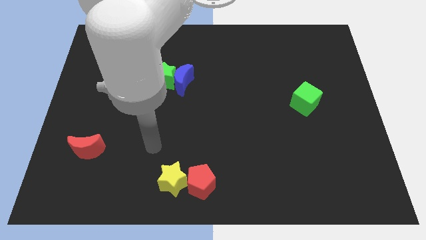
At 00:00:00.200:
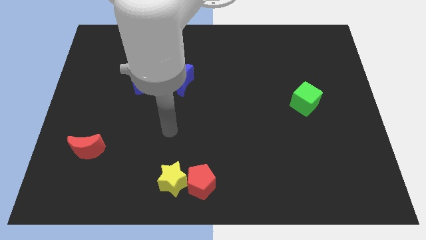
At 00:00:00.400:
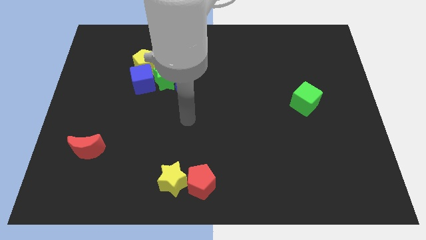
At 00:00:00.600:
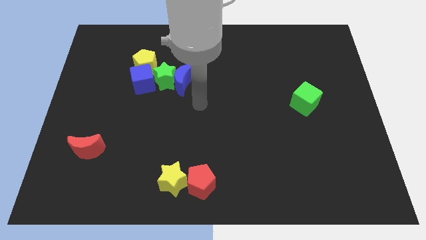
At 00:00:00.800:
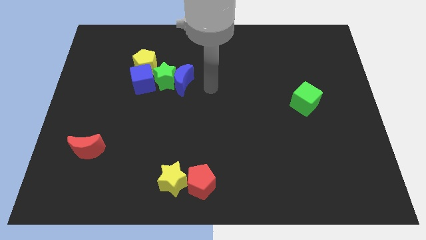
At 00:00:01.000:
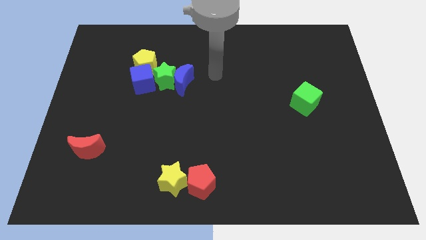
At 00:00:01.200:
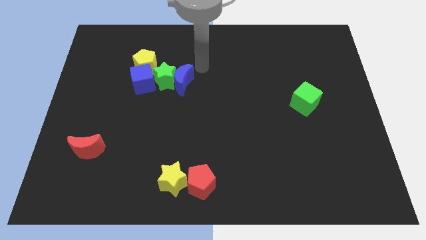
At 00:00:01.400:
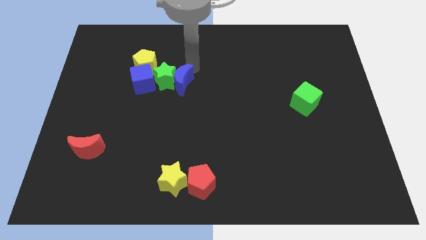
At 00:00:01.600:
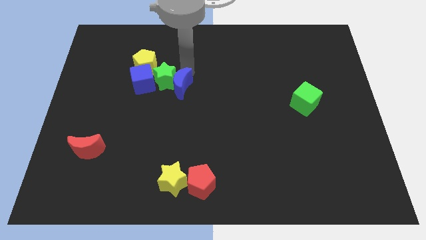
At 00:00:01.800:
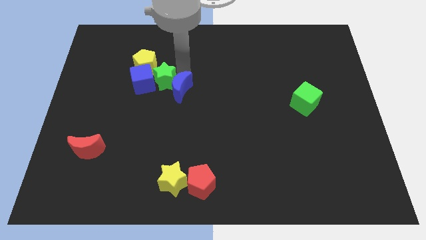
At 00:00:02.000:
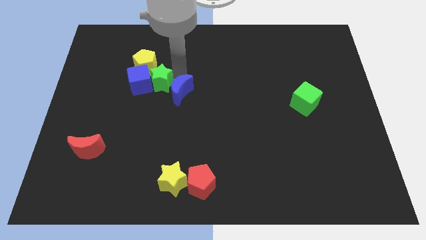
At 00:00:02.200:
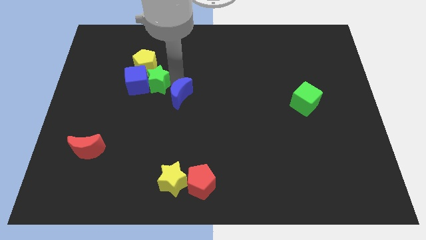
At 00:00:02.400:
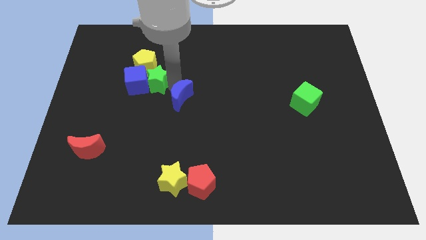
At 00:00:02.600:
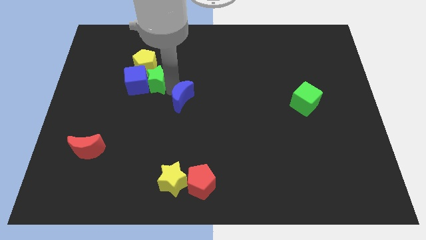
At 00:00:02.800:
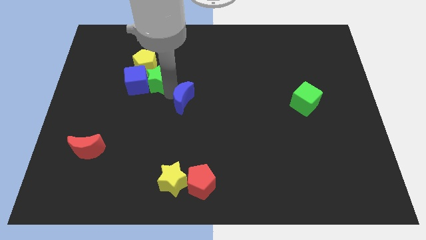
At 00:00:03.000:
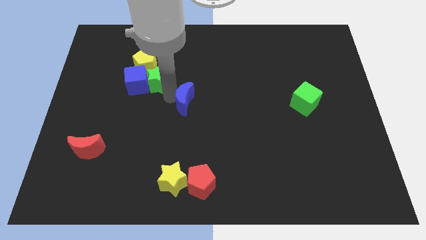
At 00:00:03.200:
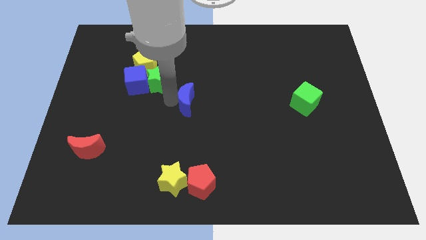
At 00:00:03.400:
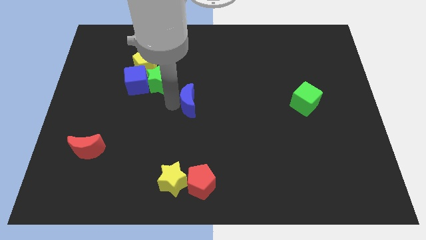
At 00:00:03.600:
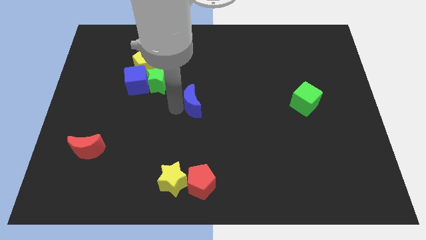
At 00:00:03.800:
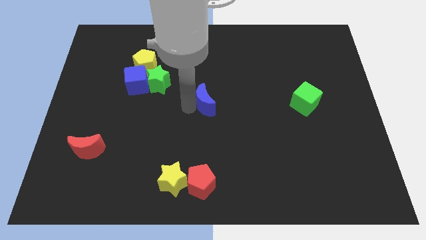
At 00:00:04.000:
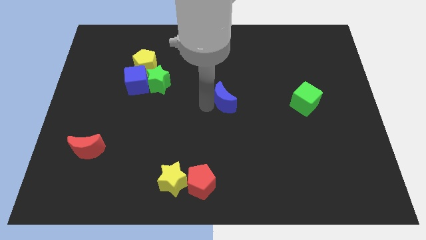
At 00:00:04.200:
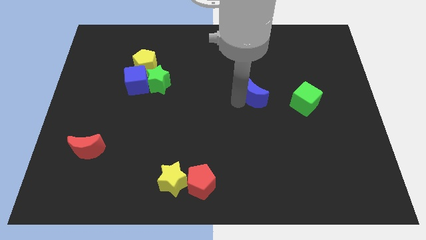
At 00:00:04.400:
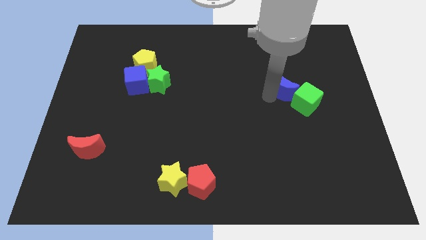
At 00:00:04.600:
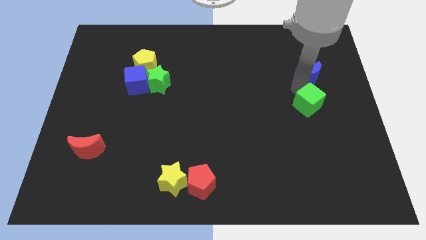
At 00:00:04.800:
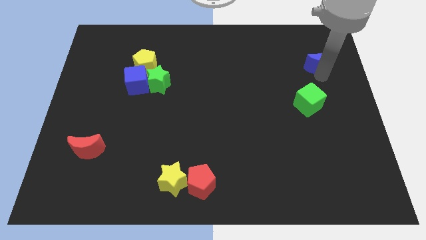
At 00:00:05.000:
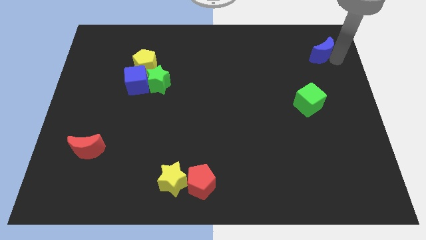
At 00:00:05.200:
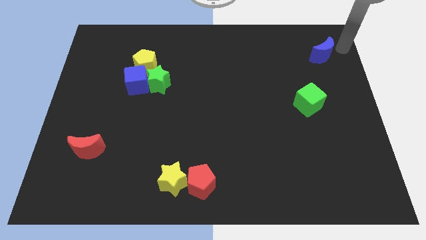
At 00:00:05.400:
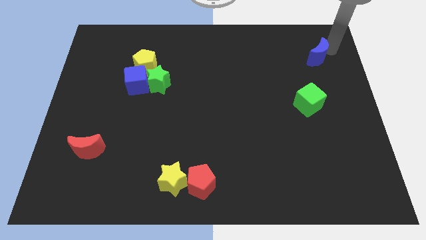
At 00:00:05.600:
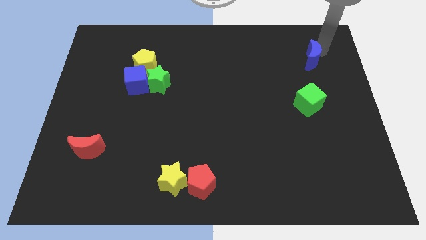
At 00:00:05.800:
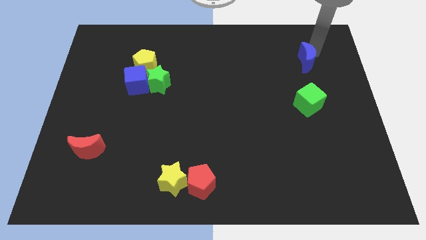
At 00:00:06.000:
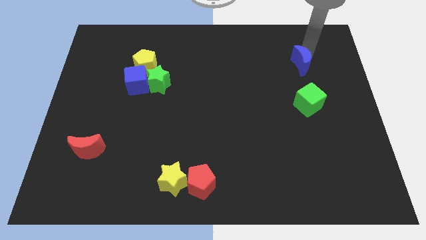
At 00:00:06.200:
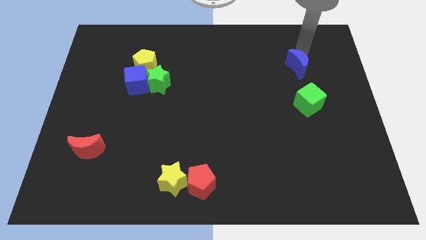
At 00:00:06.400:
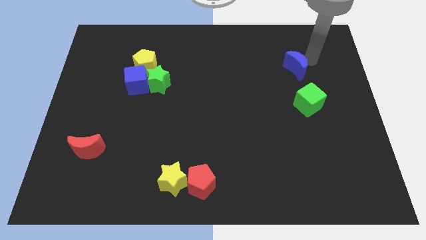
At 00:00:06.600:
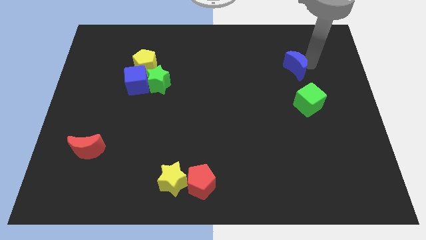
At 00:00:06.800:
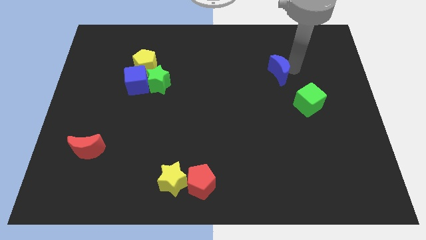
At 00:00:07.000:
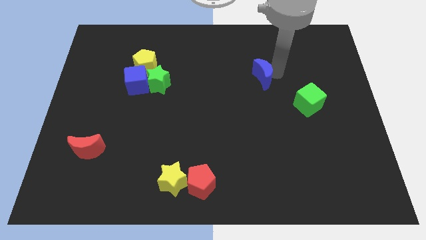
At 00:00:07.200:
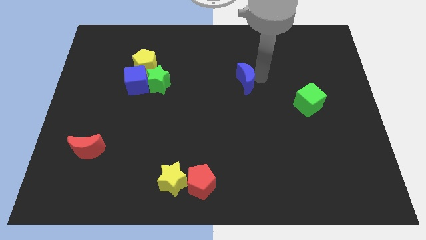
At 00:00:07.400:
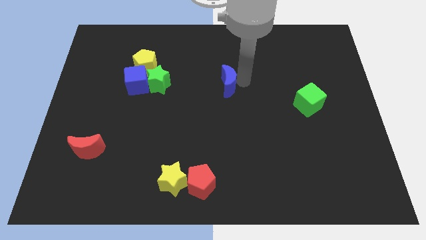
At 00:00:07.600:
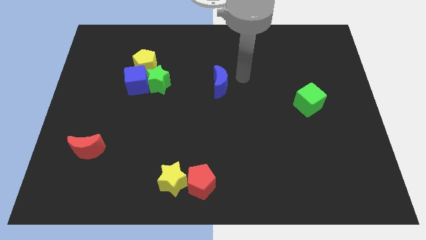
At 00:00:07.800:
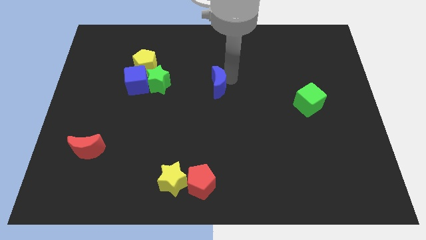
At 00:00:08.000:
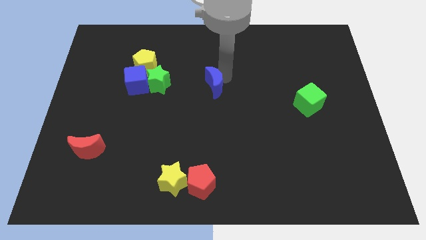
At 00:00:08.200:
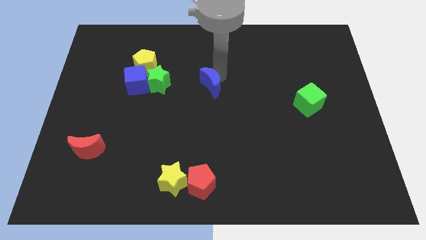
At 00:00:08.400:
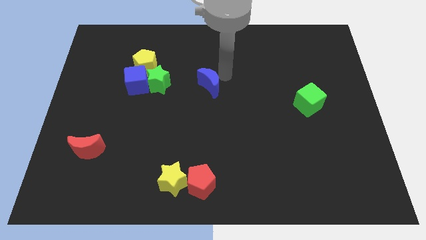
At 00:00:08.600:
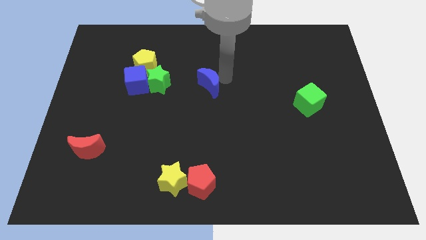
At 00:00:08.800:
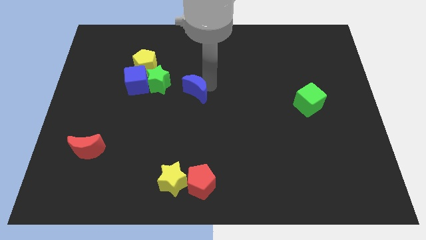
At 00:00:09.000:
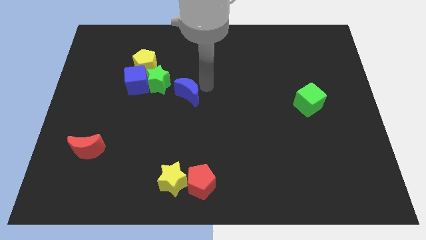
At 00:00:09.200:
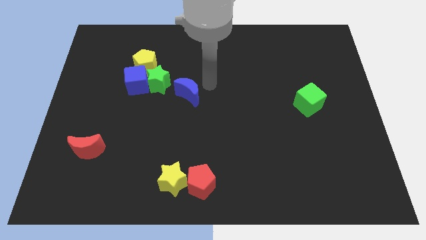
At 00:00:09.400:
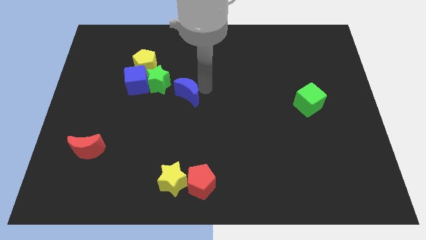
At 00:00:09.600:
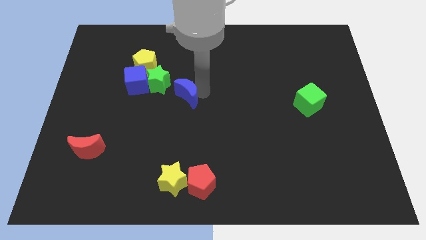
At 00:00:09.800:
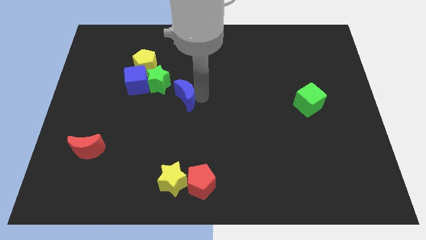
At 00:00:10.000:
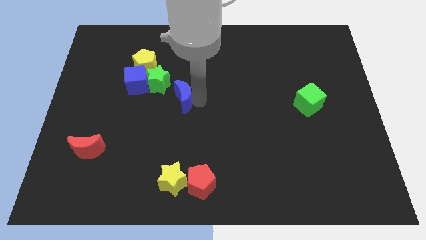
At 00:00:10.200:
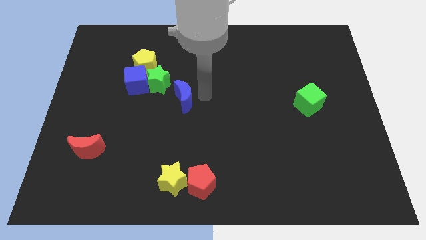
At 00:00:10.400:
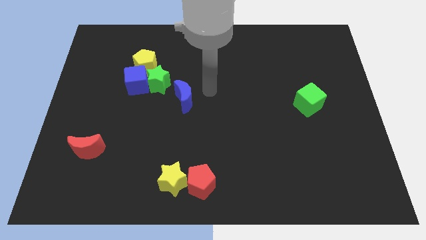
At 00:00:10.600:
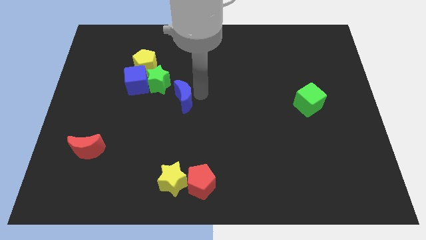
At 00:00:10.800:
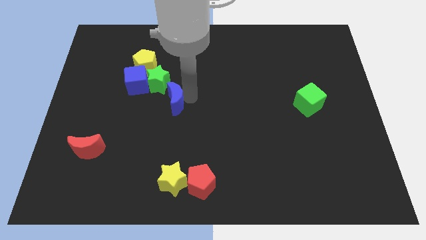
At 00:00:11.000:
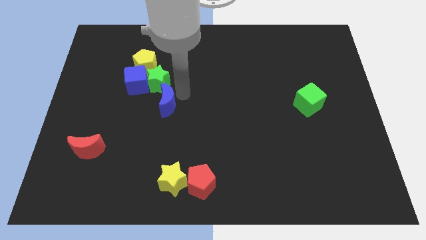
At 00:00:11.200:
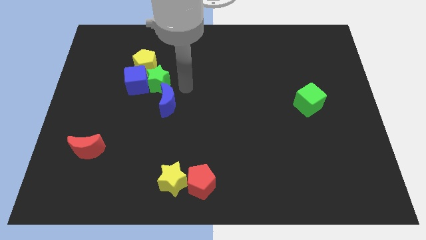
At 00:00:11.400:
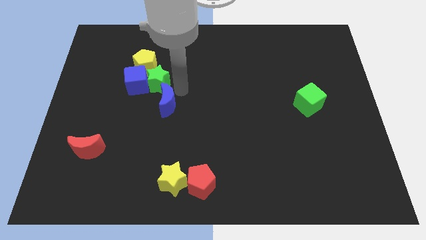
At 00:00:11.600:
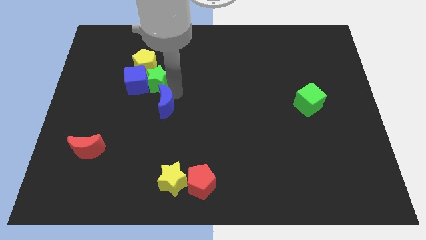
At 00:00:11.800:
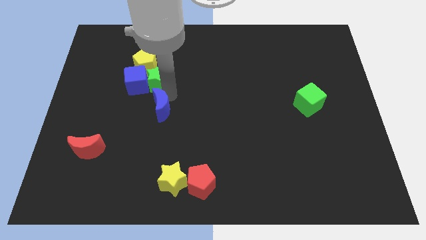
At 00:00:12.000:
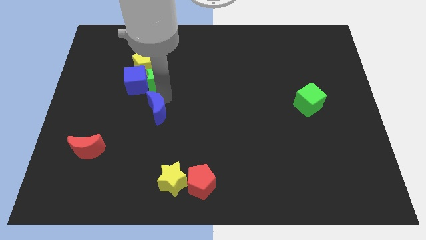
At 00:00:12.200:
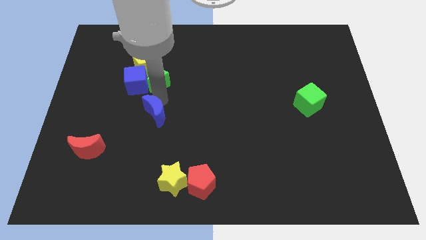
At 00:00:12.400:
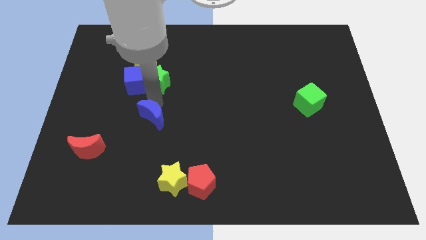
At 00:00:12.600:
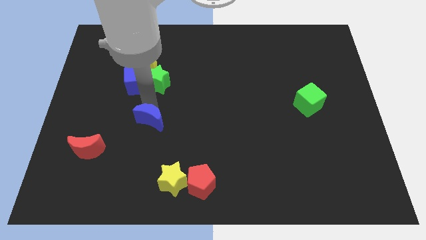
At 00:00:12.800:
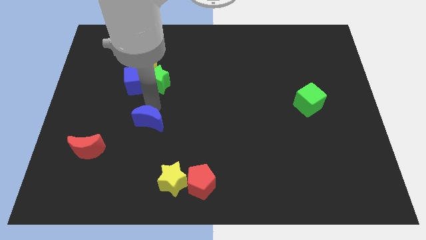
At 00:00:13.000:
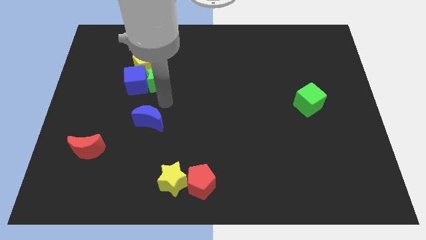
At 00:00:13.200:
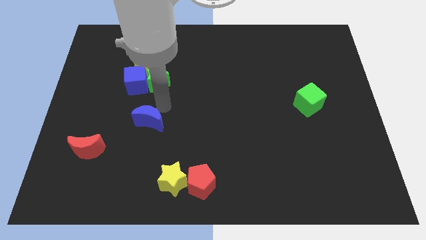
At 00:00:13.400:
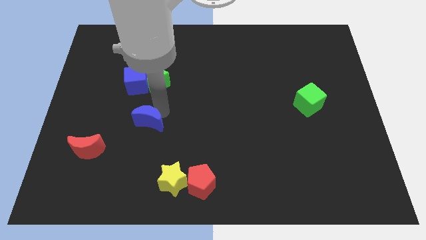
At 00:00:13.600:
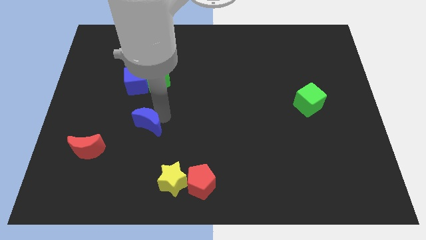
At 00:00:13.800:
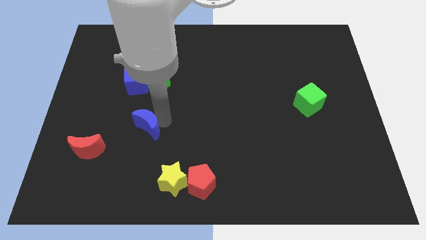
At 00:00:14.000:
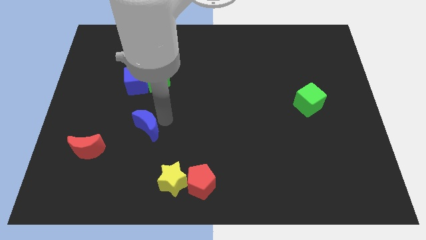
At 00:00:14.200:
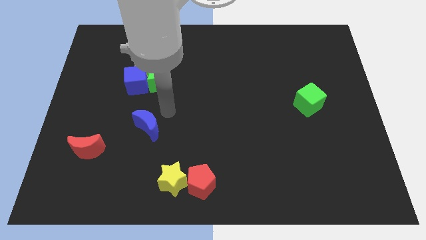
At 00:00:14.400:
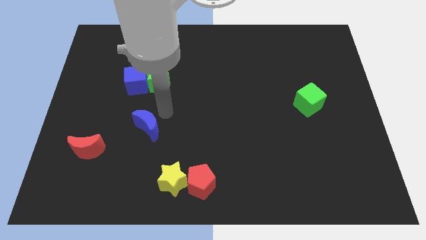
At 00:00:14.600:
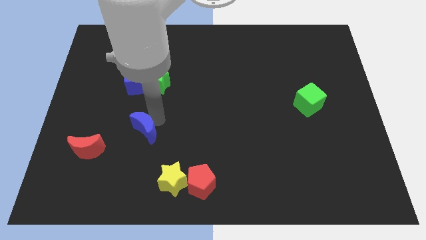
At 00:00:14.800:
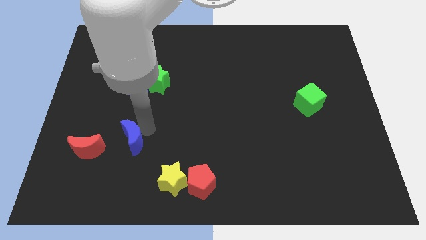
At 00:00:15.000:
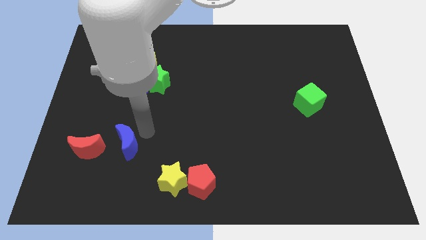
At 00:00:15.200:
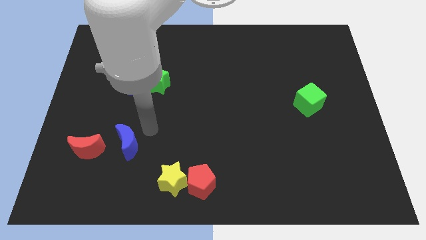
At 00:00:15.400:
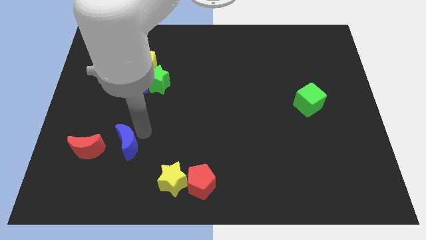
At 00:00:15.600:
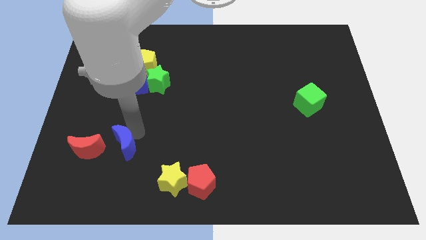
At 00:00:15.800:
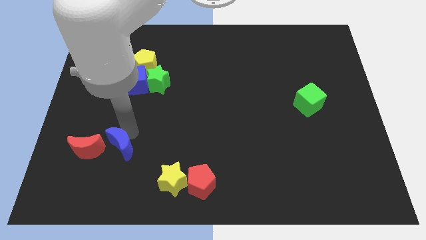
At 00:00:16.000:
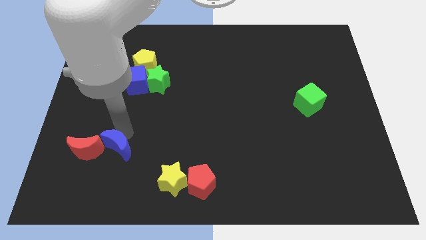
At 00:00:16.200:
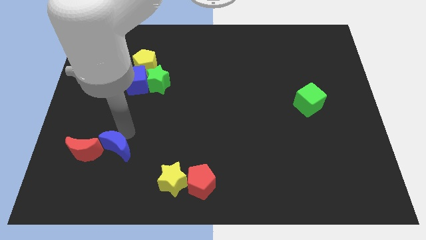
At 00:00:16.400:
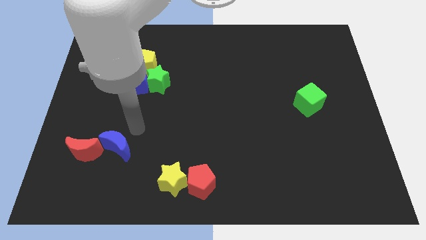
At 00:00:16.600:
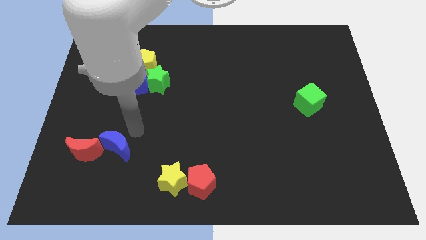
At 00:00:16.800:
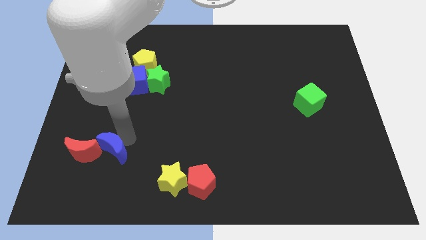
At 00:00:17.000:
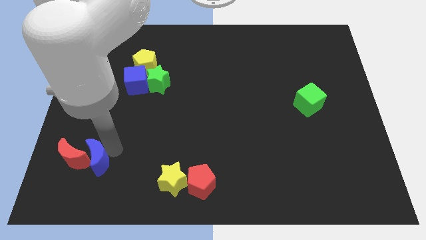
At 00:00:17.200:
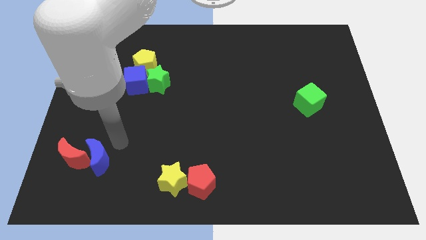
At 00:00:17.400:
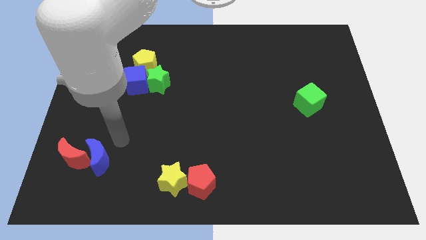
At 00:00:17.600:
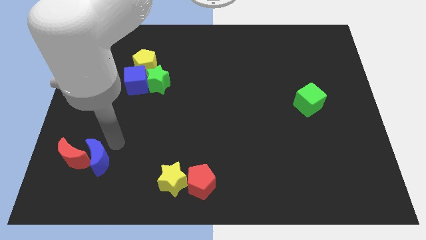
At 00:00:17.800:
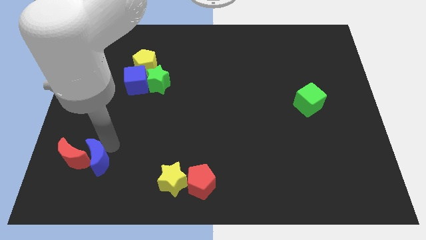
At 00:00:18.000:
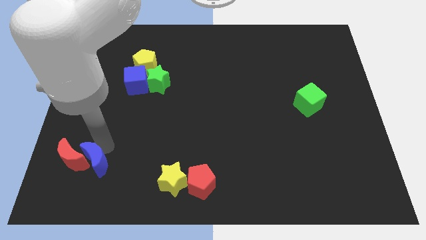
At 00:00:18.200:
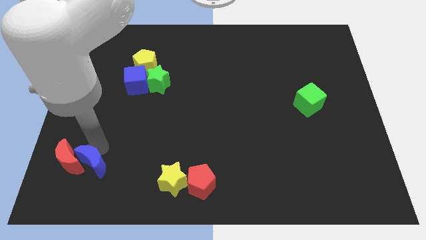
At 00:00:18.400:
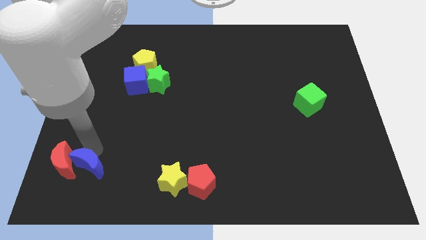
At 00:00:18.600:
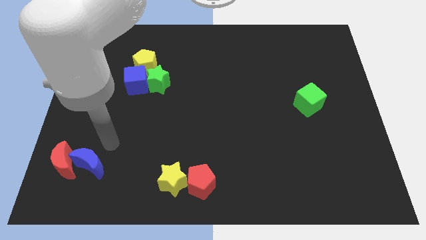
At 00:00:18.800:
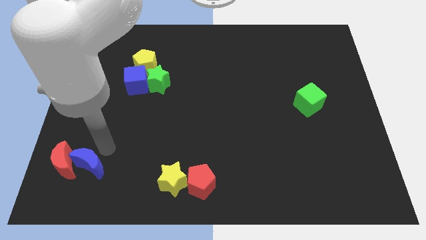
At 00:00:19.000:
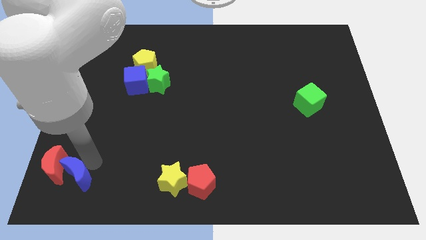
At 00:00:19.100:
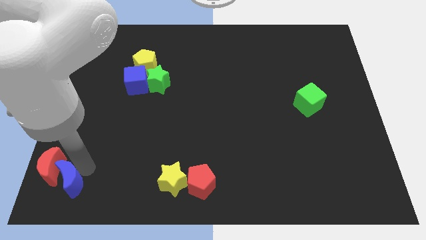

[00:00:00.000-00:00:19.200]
slide the blue moon to the lower left corner
